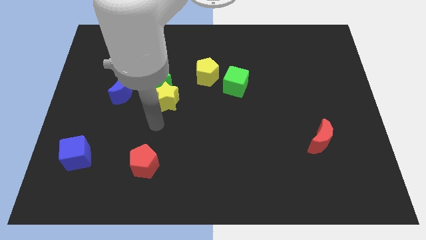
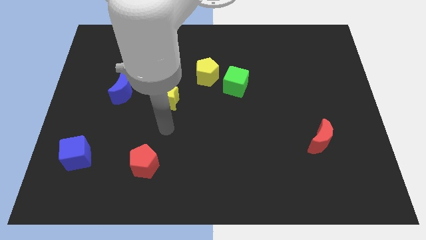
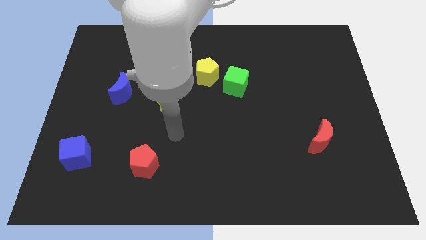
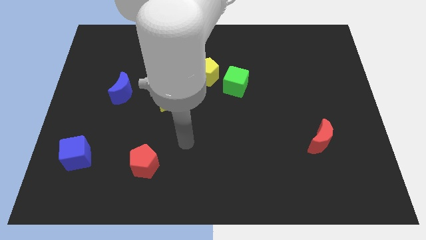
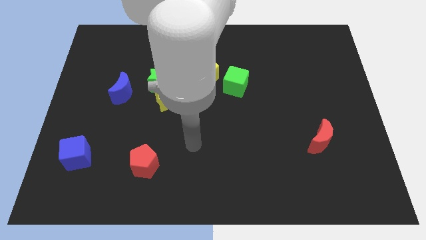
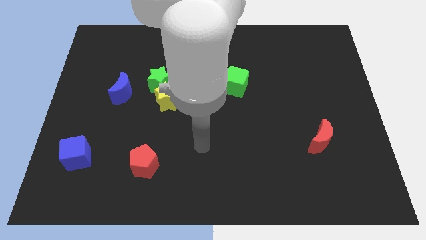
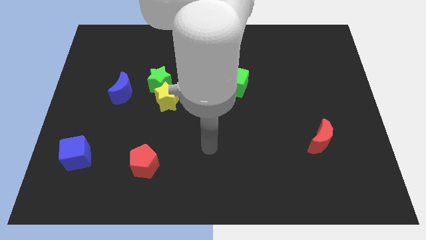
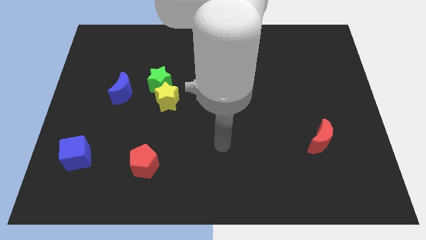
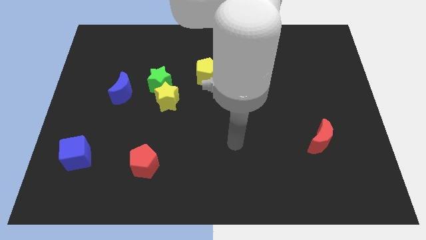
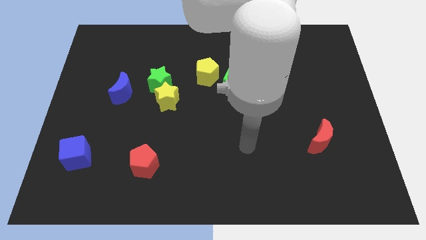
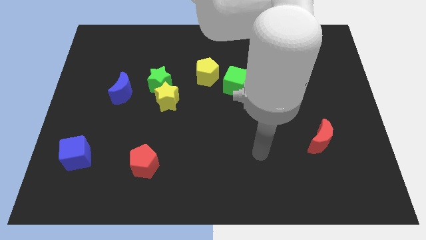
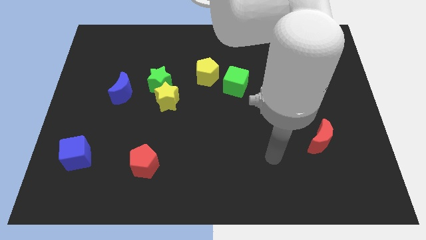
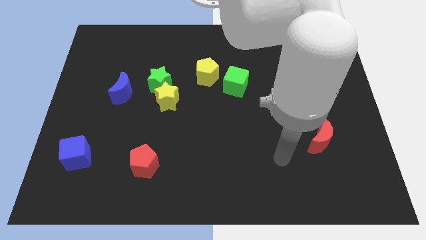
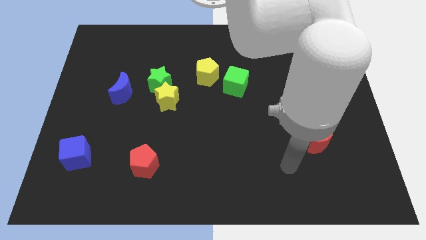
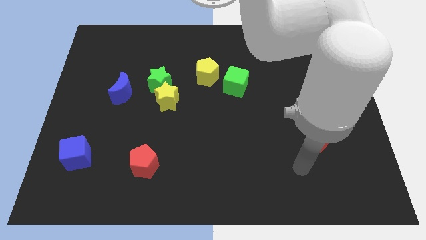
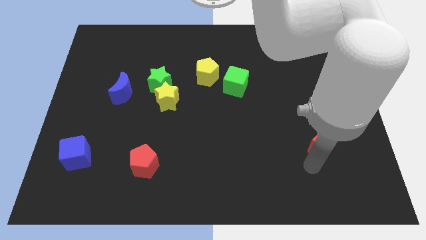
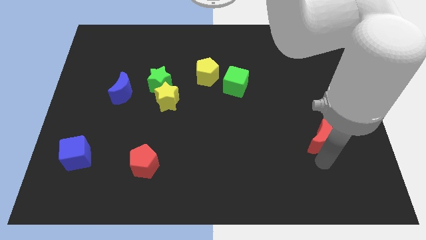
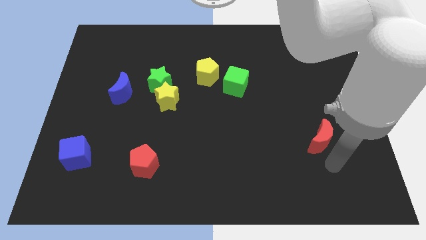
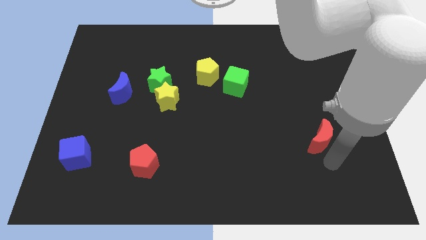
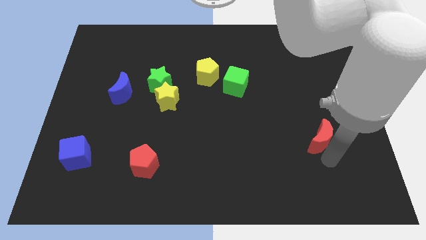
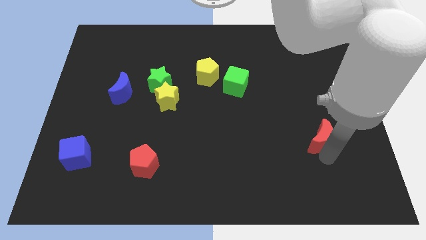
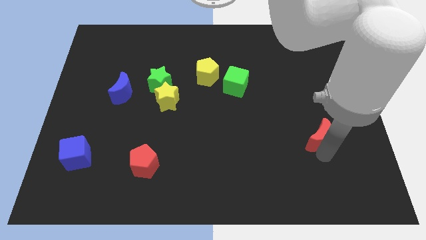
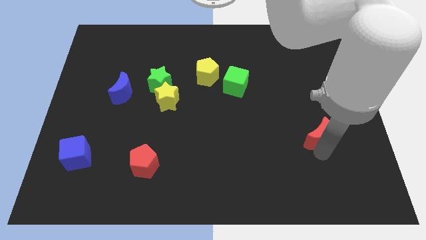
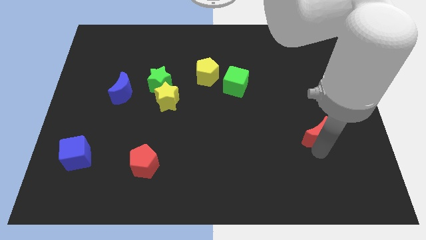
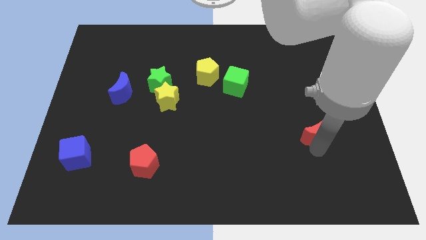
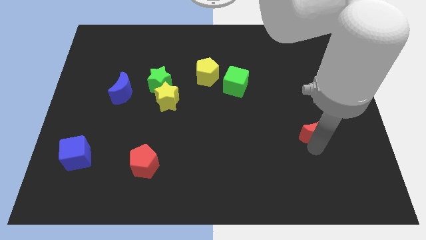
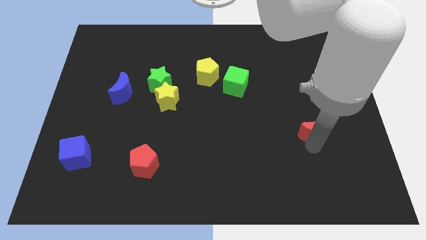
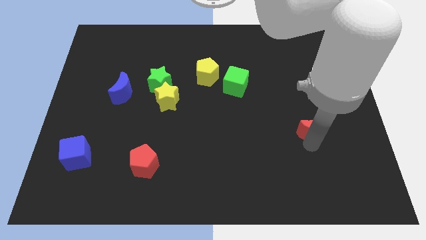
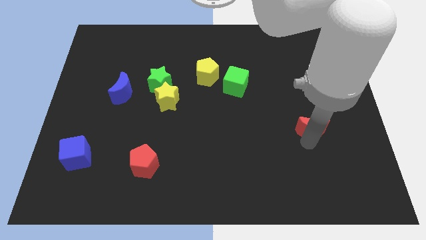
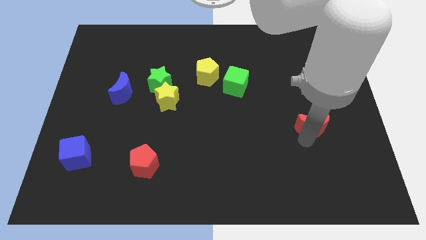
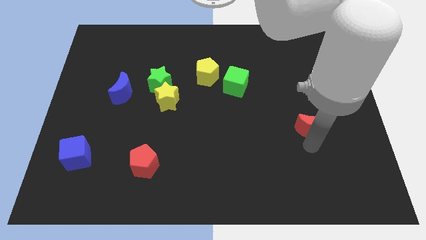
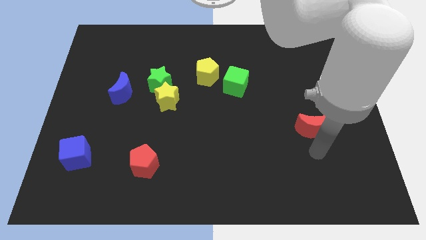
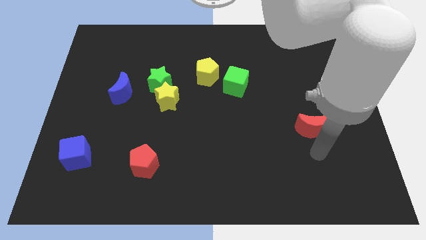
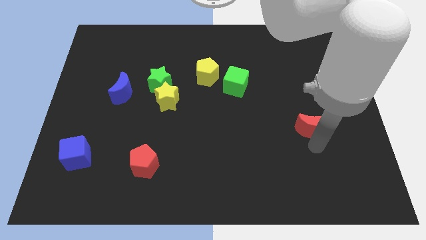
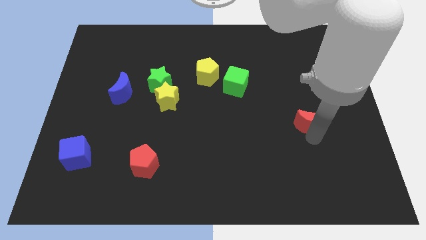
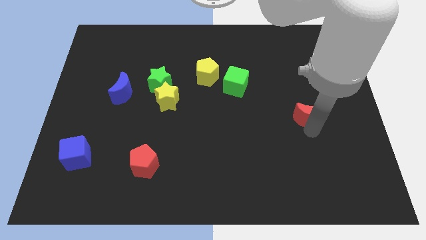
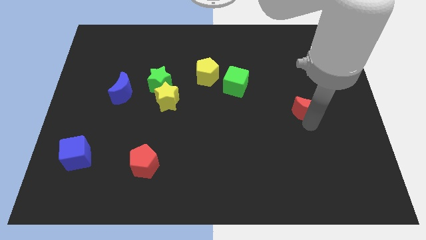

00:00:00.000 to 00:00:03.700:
slightly slide the red moon up

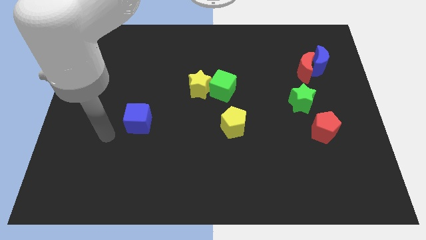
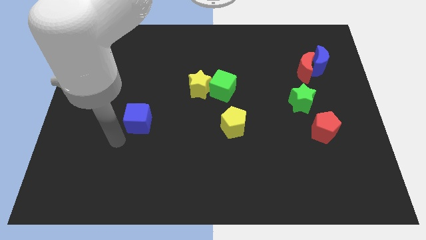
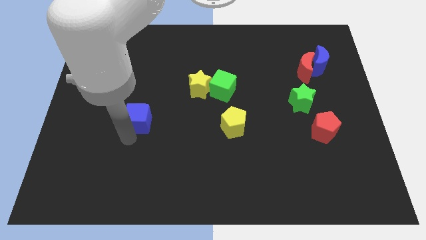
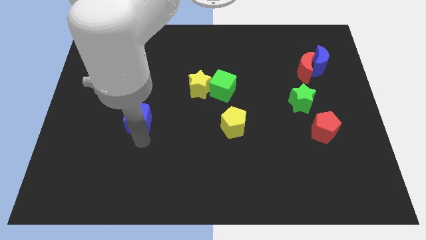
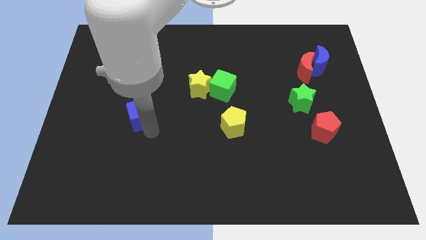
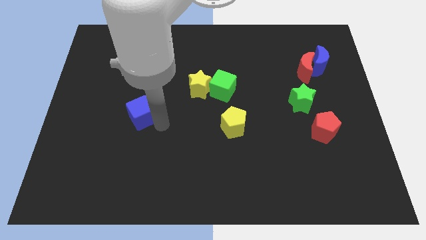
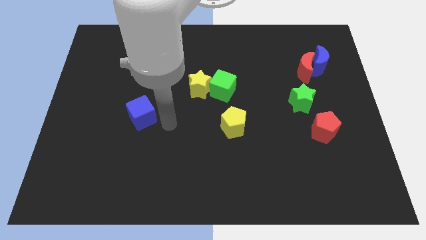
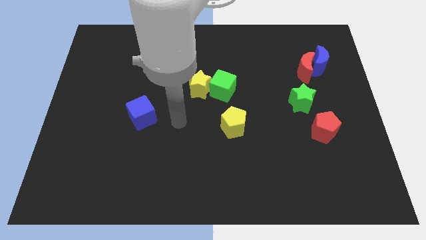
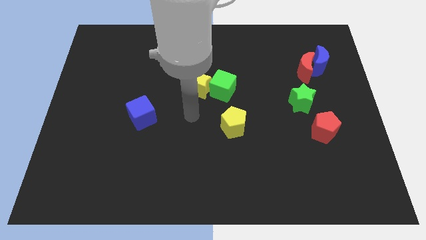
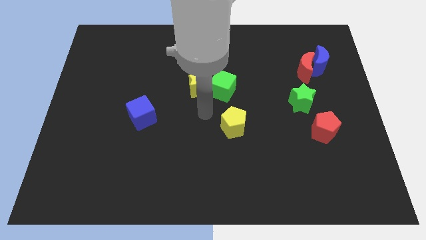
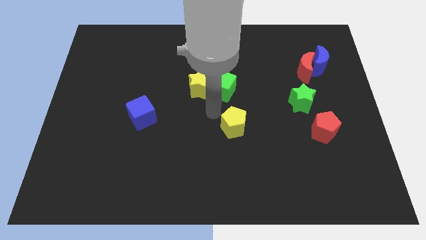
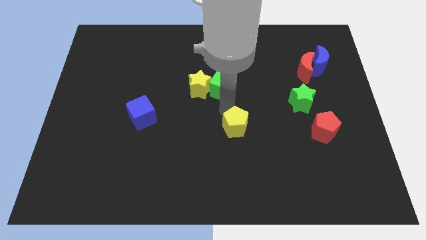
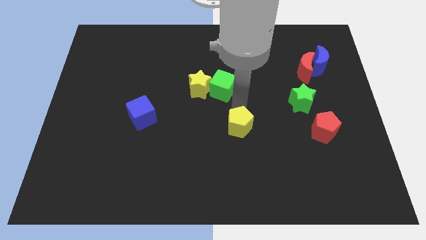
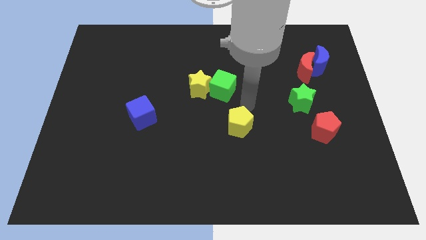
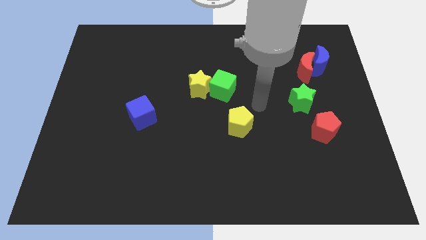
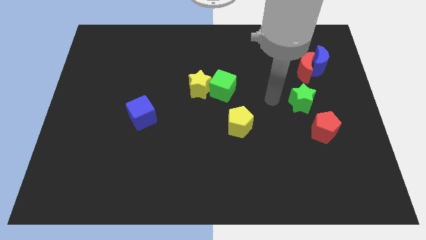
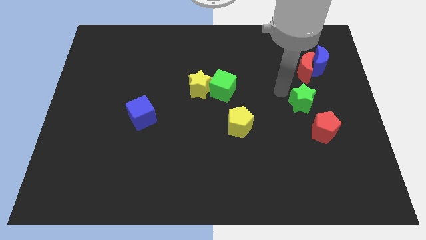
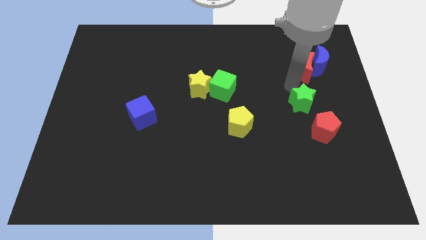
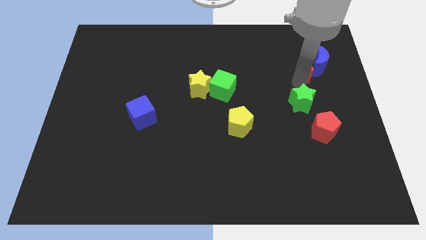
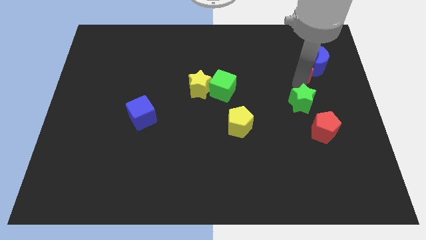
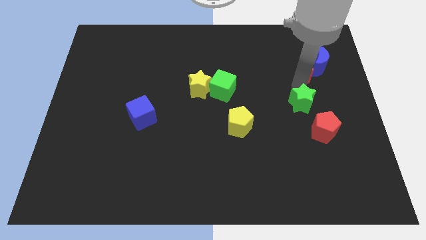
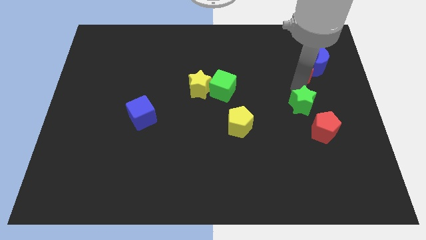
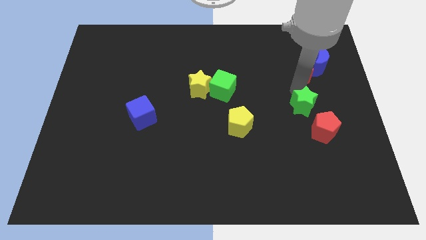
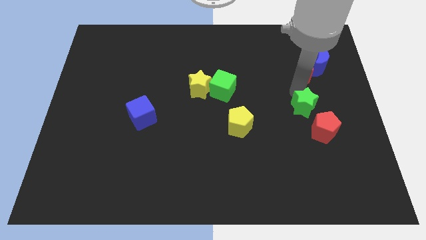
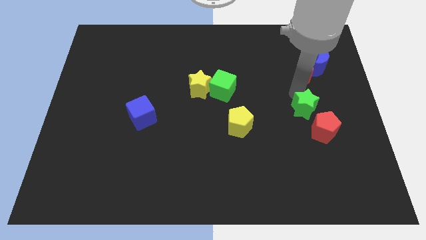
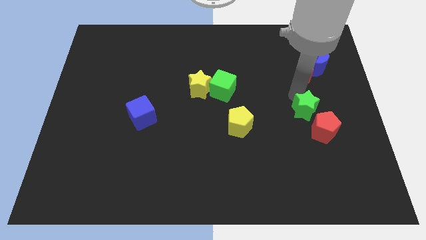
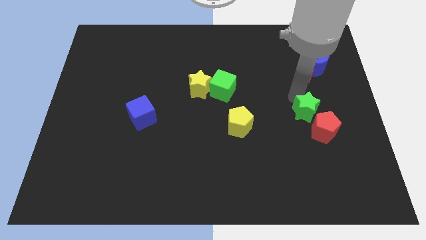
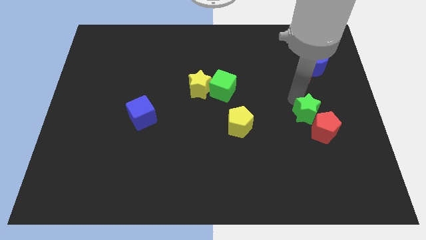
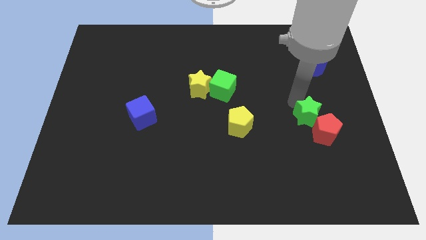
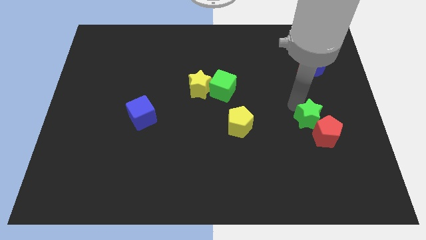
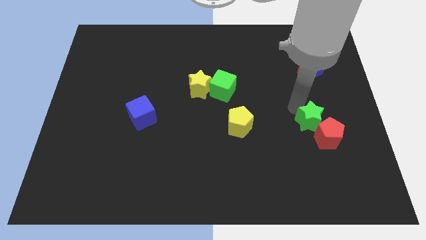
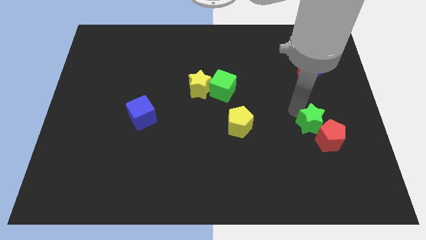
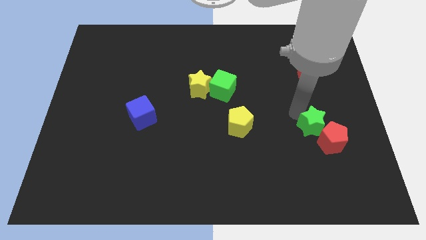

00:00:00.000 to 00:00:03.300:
move the green star downwards a little bit

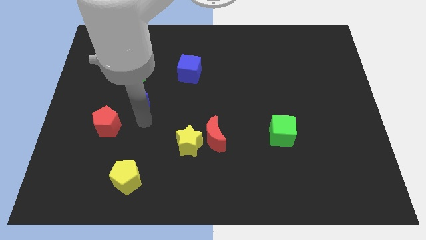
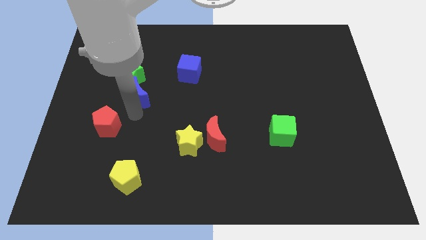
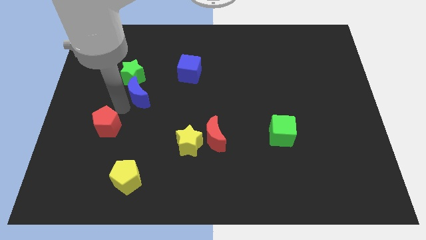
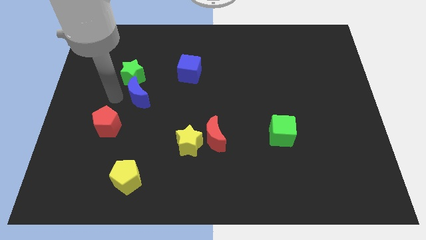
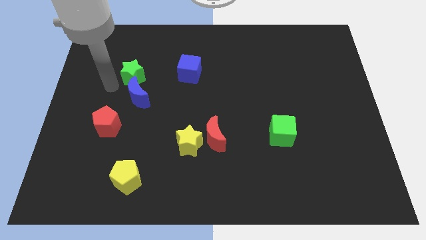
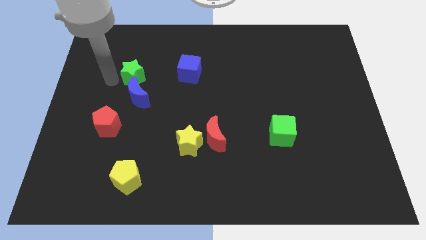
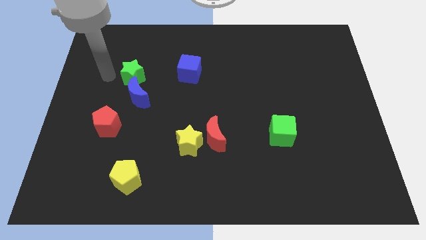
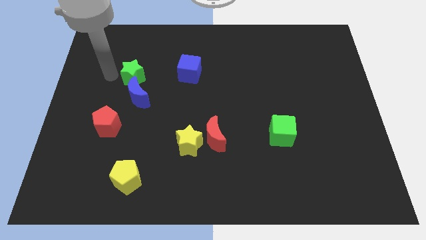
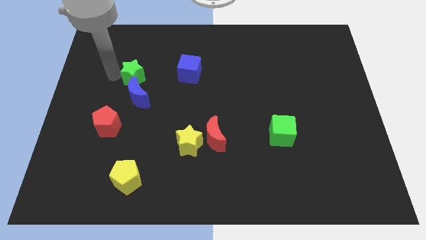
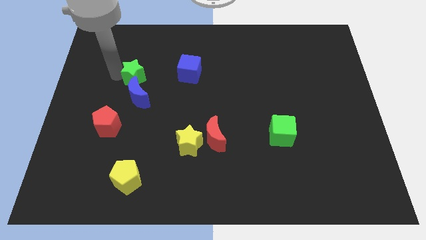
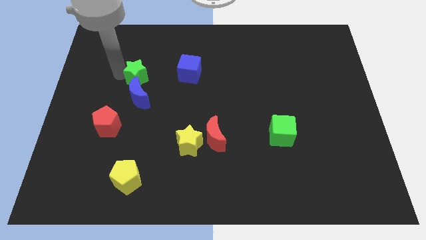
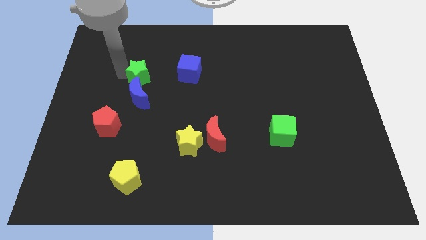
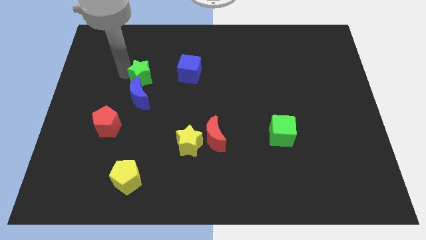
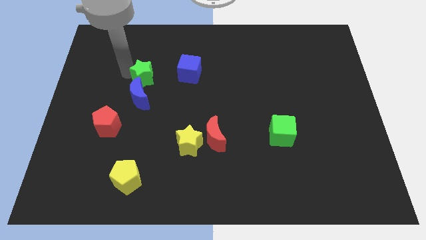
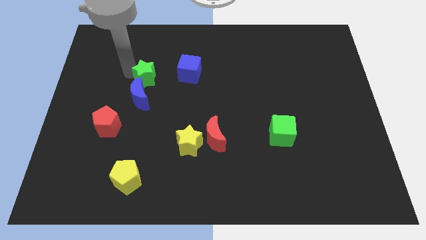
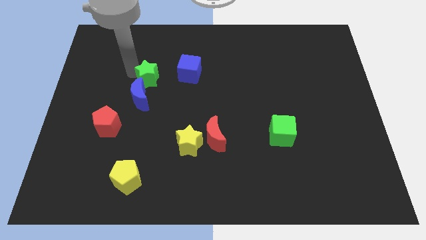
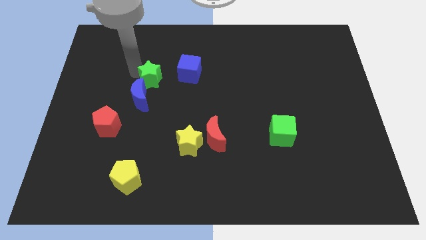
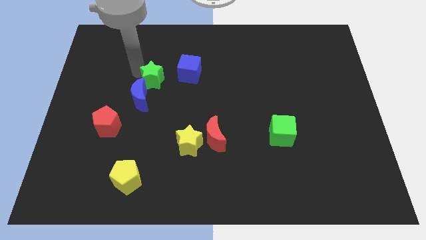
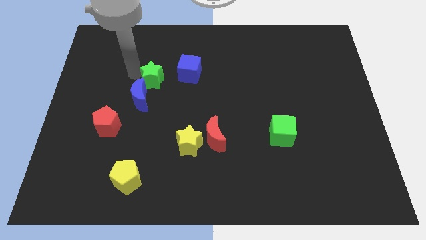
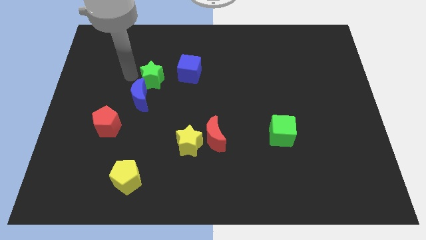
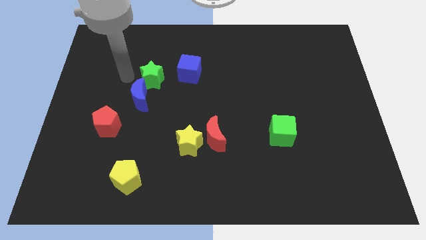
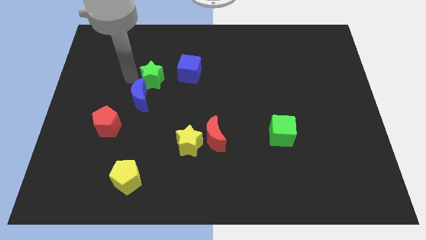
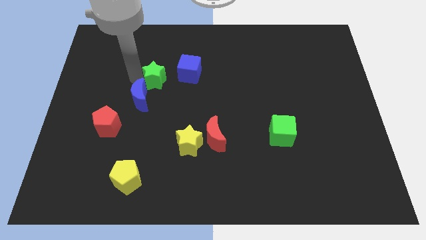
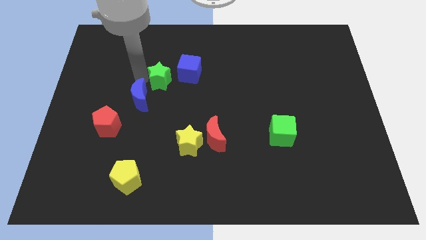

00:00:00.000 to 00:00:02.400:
move the green star a little to the right
